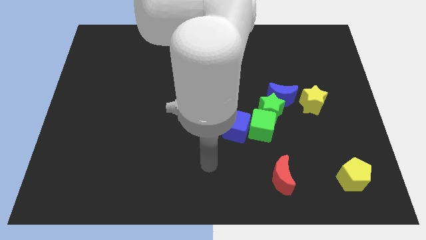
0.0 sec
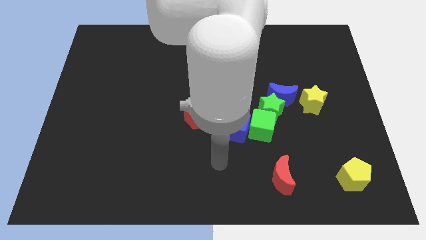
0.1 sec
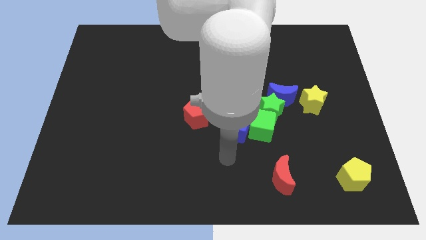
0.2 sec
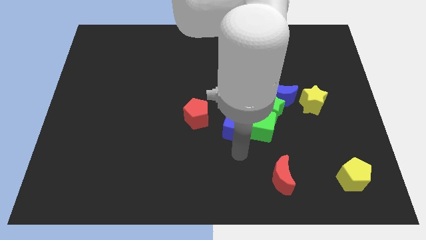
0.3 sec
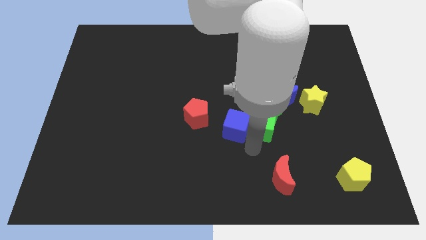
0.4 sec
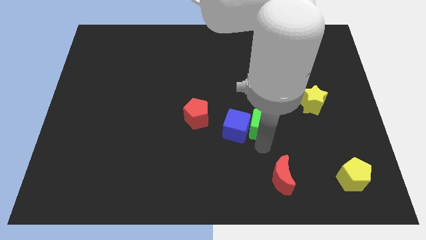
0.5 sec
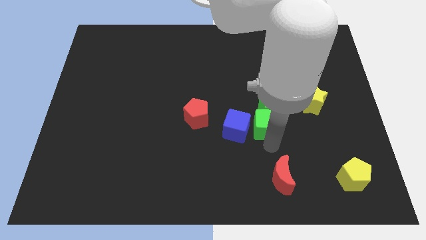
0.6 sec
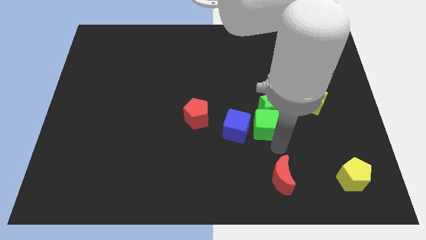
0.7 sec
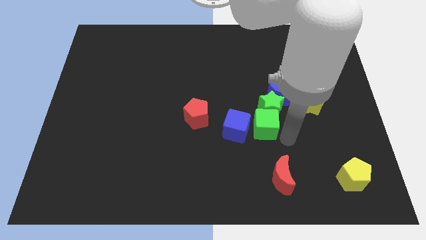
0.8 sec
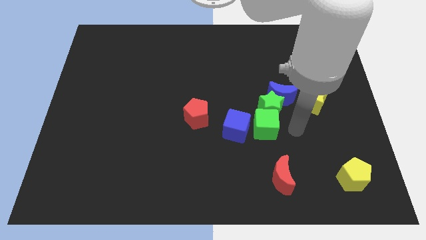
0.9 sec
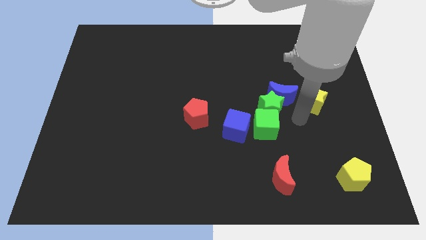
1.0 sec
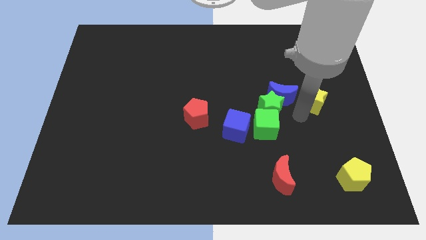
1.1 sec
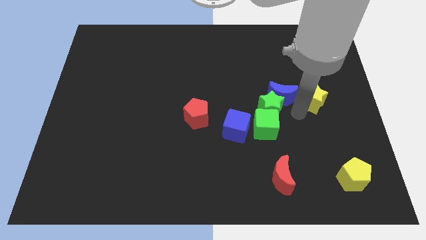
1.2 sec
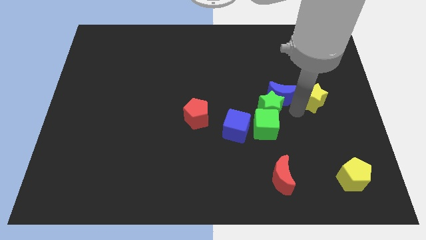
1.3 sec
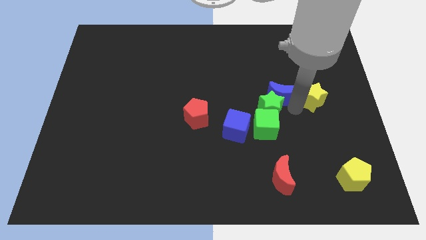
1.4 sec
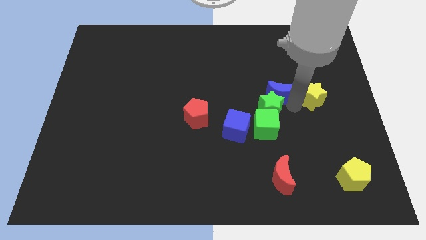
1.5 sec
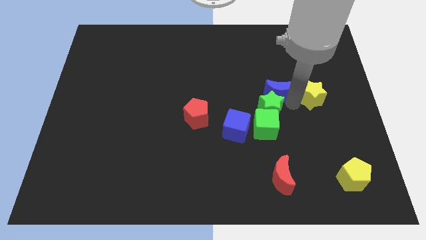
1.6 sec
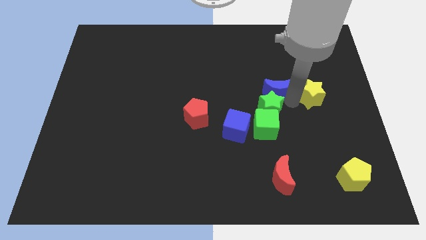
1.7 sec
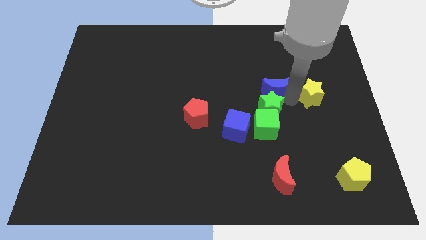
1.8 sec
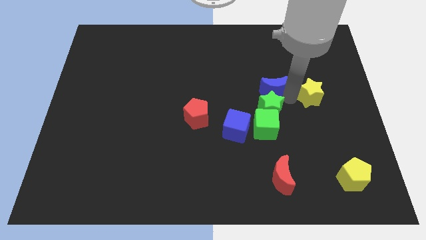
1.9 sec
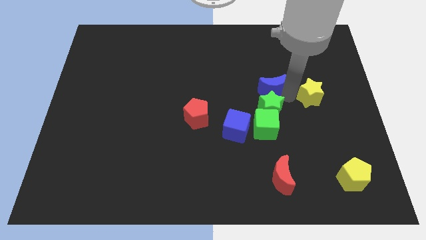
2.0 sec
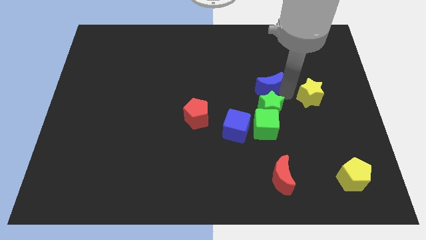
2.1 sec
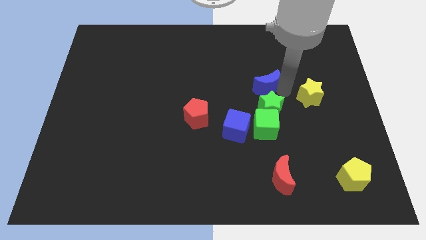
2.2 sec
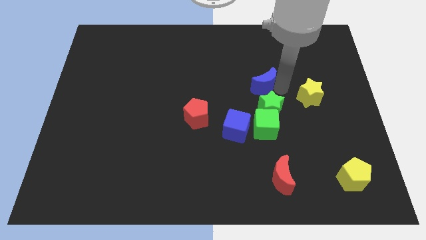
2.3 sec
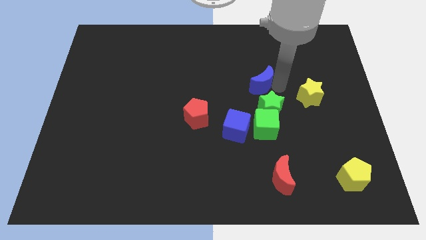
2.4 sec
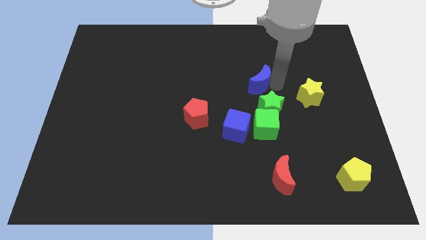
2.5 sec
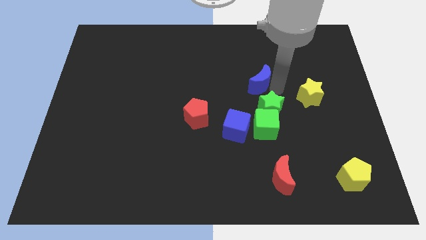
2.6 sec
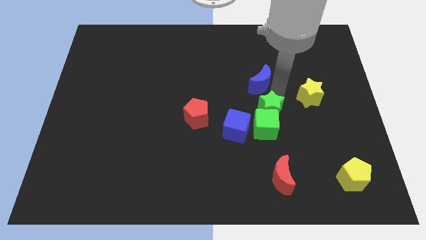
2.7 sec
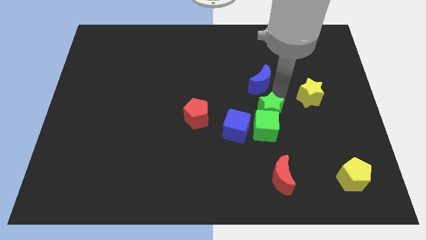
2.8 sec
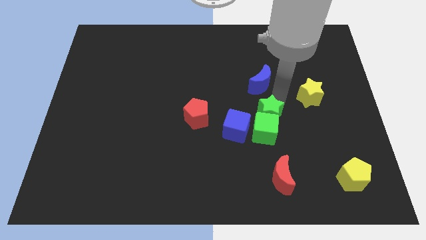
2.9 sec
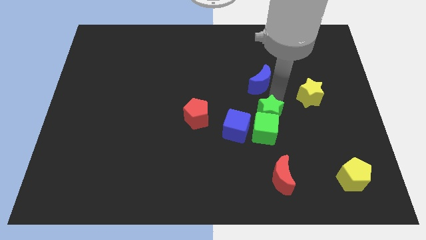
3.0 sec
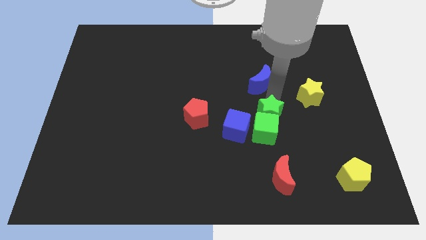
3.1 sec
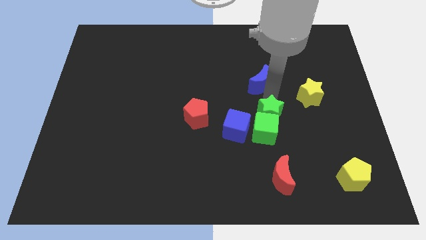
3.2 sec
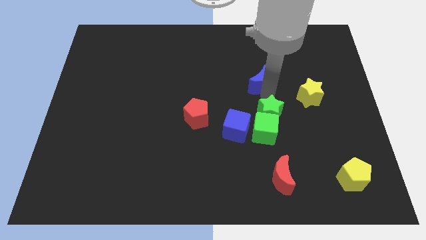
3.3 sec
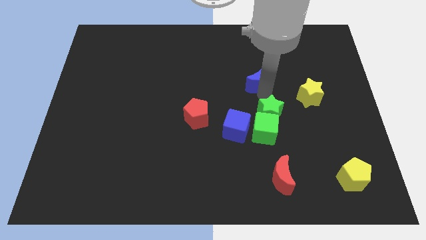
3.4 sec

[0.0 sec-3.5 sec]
push the blue moon a little bit diagonally upwards and to the left

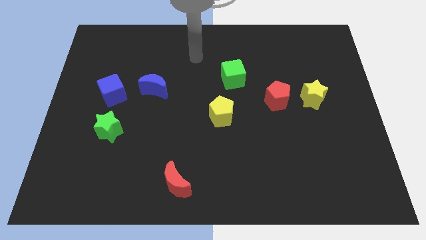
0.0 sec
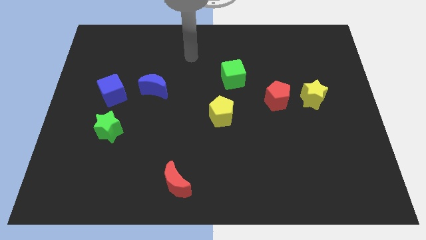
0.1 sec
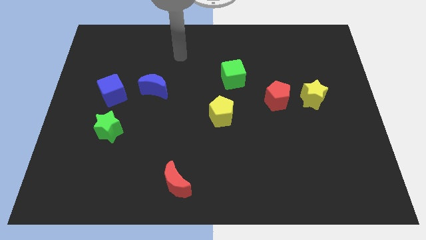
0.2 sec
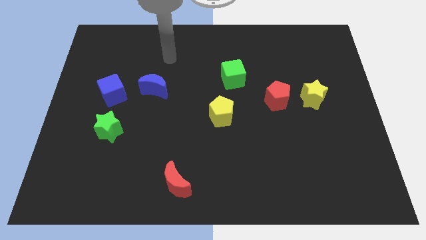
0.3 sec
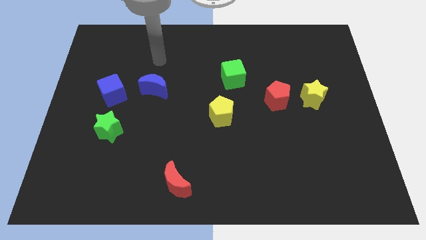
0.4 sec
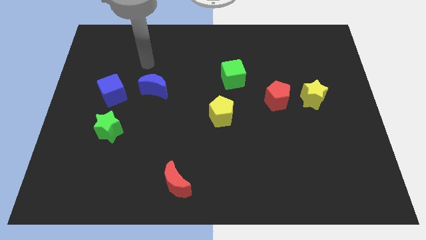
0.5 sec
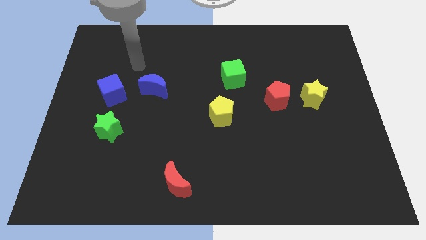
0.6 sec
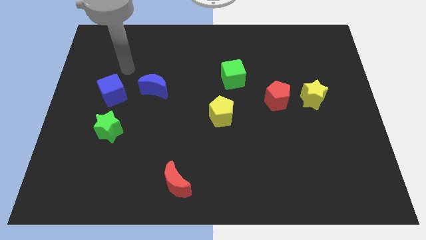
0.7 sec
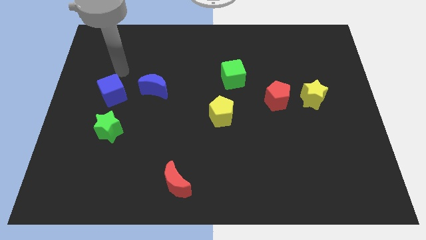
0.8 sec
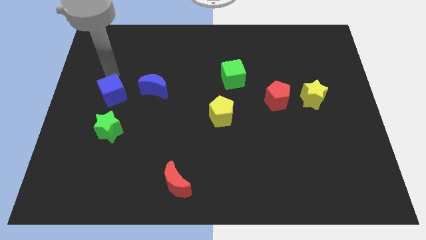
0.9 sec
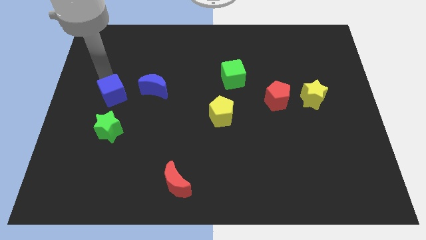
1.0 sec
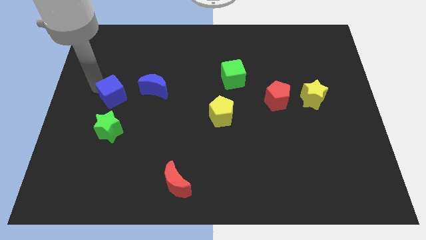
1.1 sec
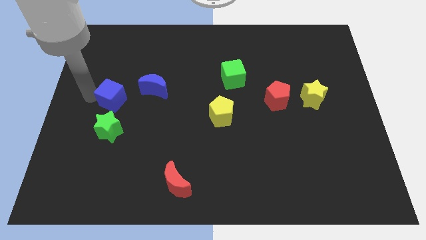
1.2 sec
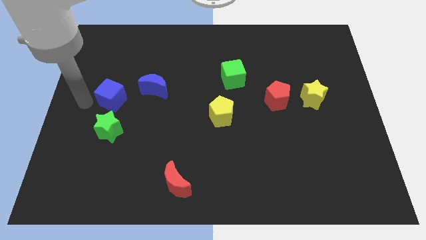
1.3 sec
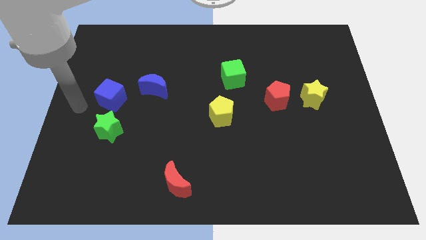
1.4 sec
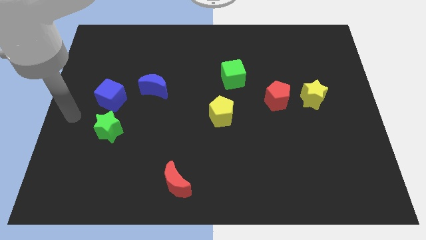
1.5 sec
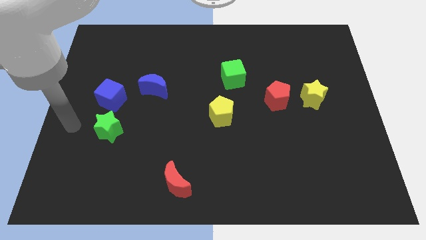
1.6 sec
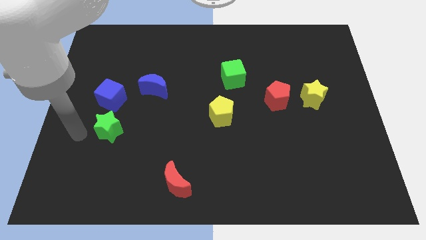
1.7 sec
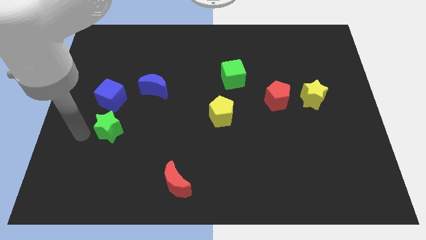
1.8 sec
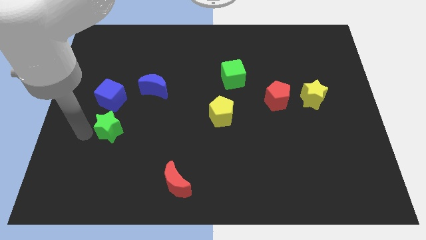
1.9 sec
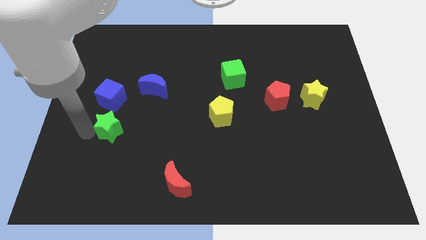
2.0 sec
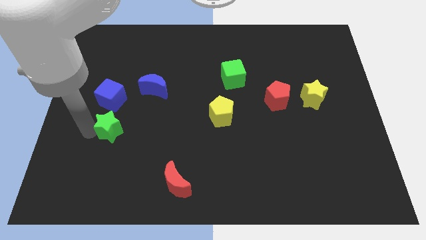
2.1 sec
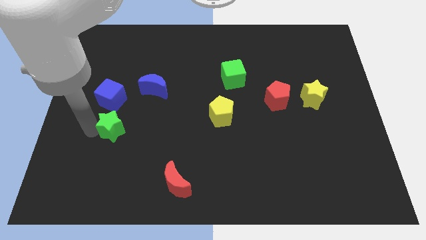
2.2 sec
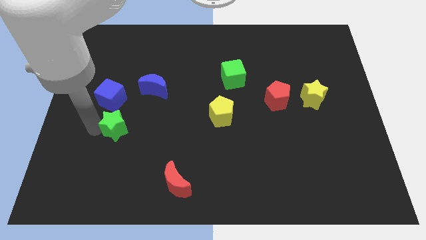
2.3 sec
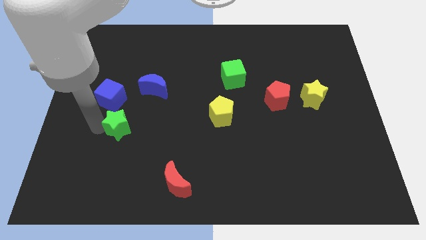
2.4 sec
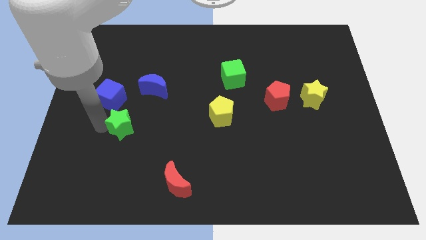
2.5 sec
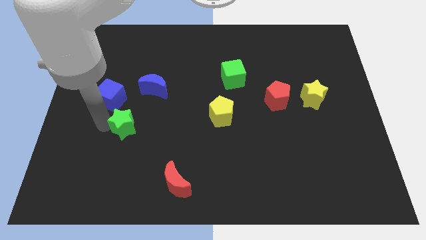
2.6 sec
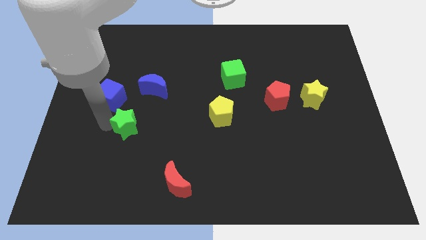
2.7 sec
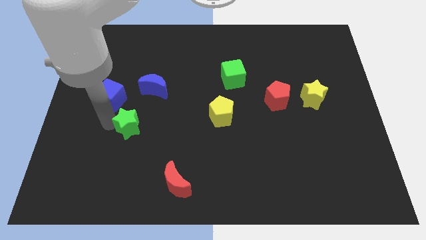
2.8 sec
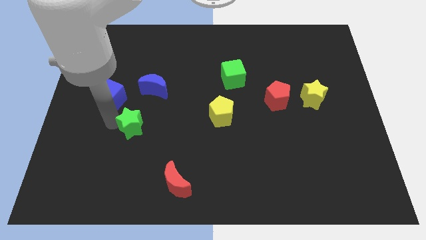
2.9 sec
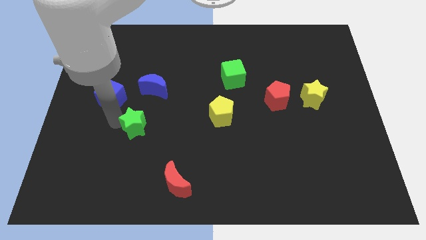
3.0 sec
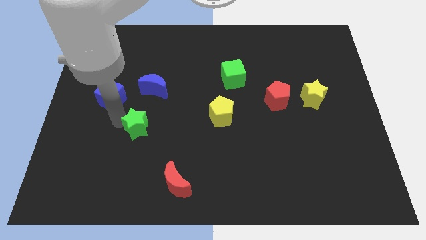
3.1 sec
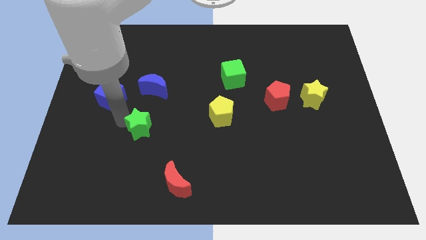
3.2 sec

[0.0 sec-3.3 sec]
slightly push the green star to the right

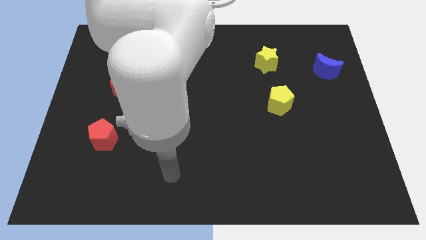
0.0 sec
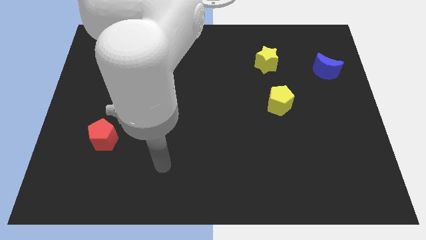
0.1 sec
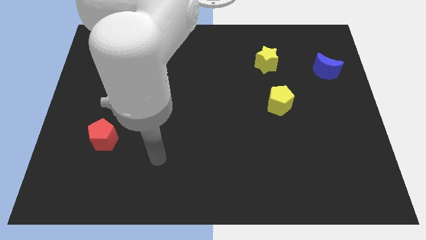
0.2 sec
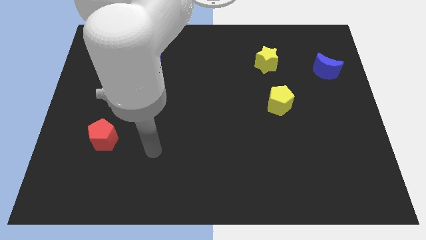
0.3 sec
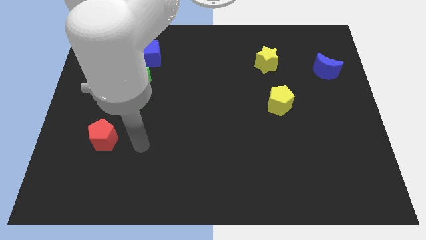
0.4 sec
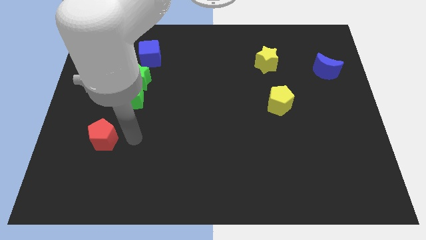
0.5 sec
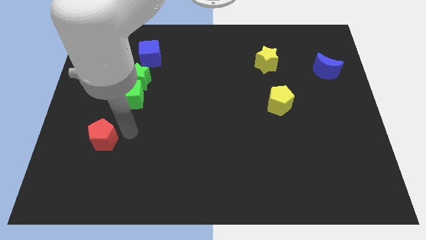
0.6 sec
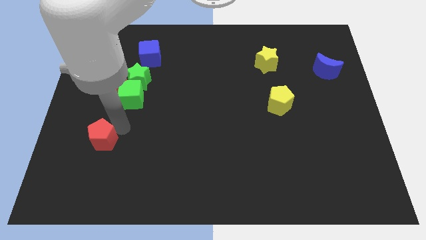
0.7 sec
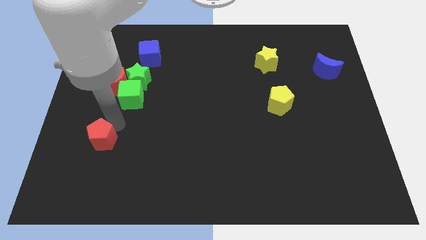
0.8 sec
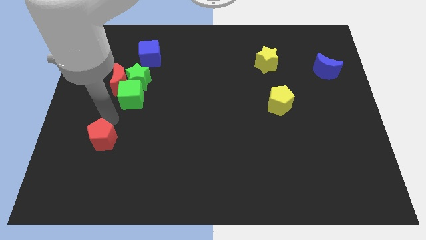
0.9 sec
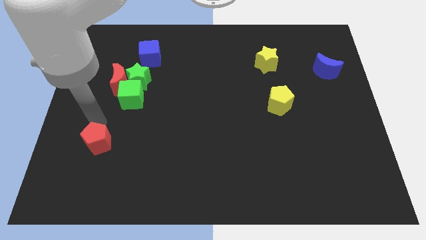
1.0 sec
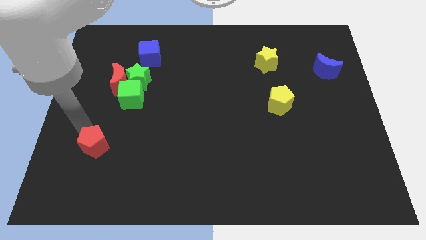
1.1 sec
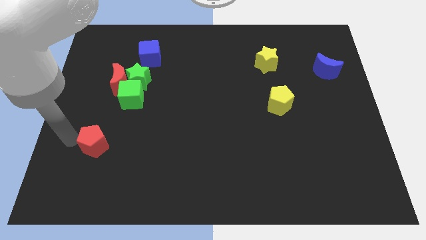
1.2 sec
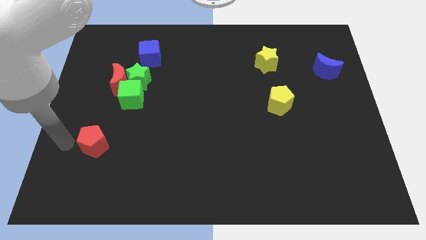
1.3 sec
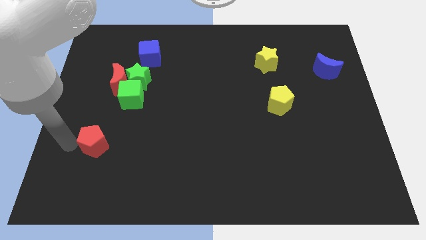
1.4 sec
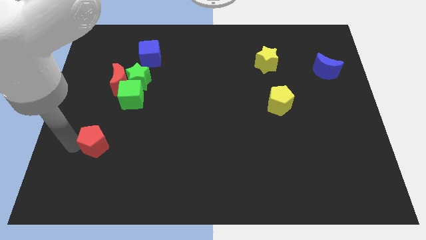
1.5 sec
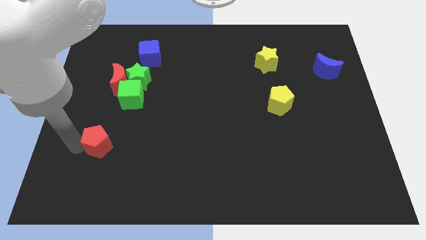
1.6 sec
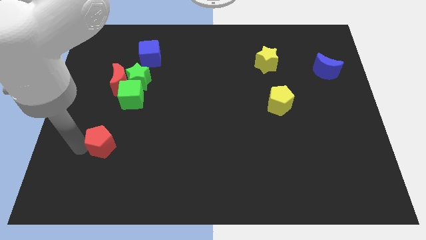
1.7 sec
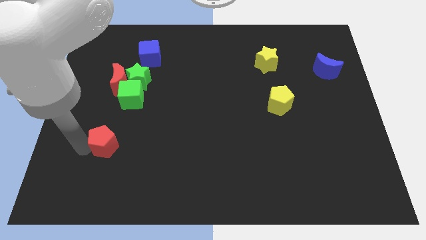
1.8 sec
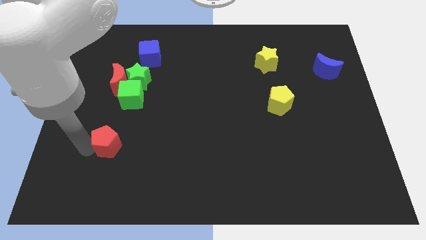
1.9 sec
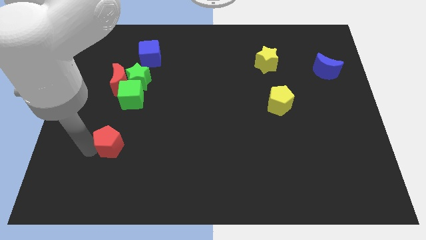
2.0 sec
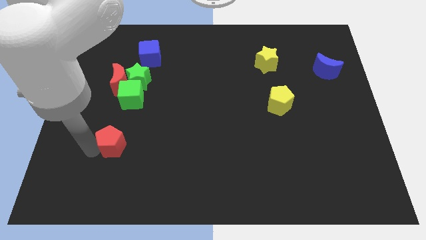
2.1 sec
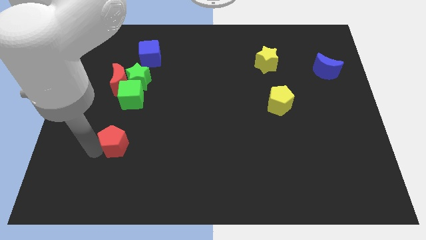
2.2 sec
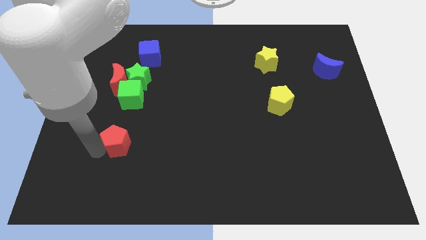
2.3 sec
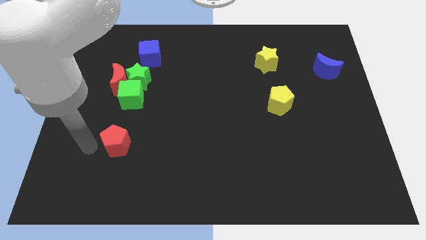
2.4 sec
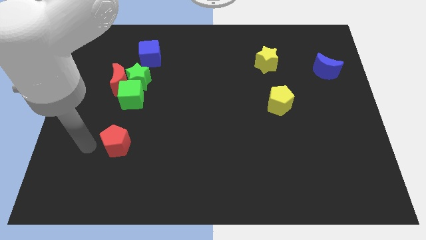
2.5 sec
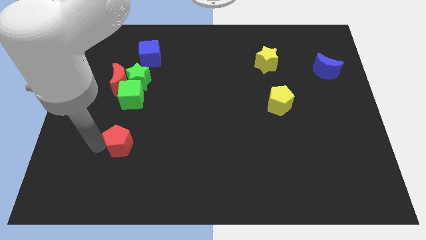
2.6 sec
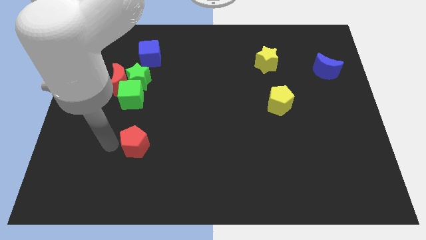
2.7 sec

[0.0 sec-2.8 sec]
move the red pentagon right a little
